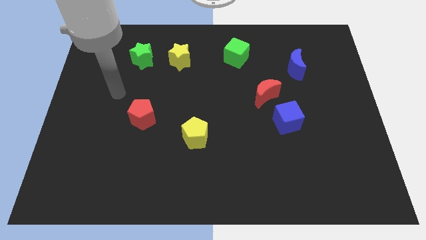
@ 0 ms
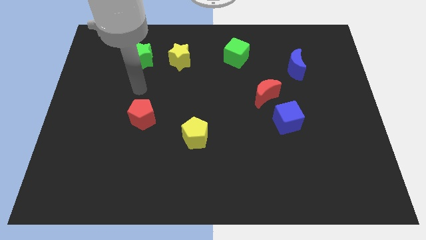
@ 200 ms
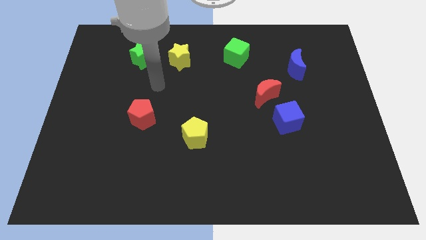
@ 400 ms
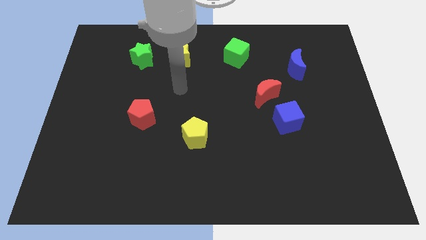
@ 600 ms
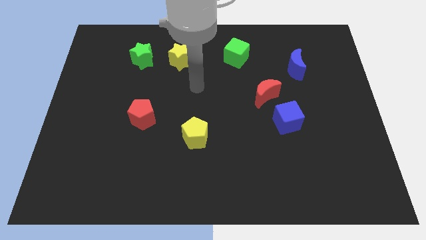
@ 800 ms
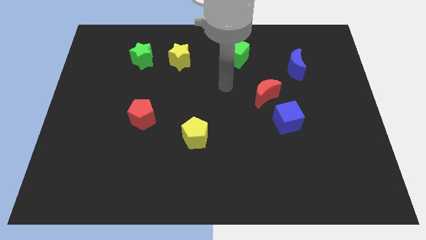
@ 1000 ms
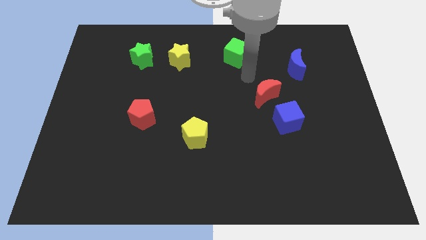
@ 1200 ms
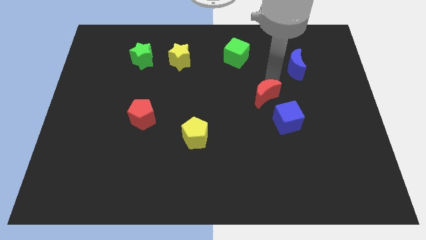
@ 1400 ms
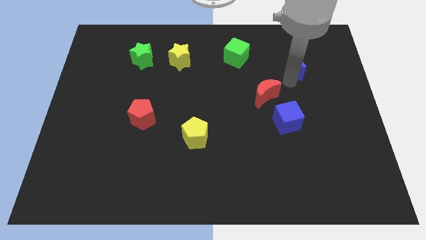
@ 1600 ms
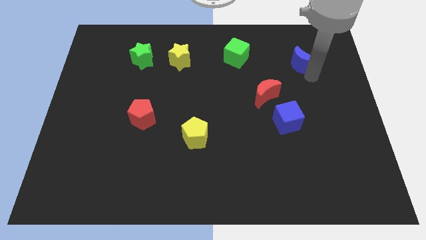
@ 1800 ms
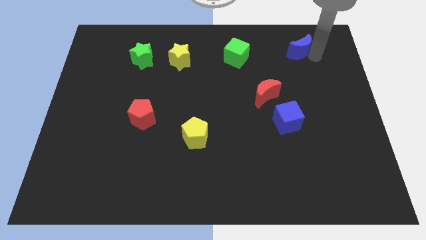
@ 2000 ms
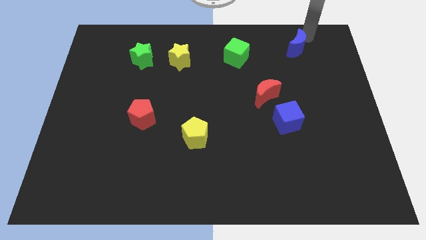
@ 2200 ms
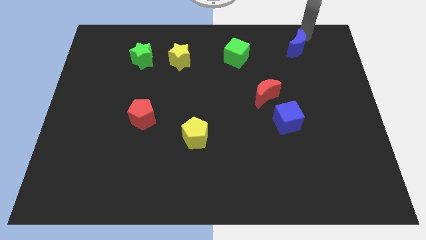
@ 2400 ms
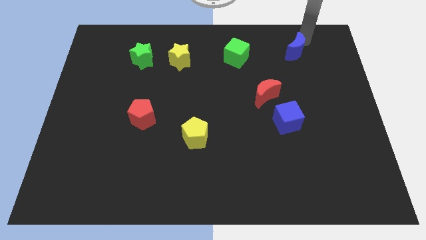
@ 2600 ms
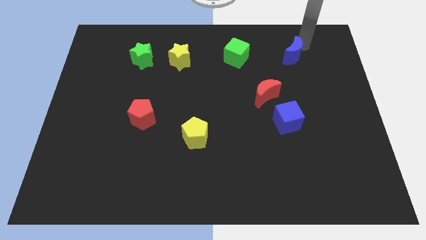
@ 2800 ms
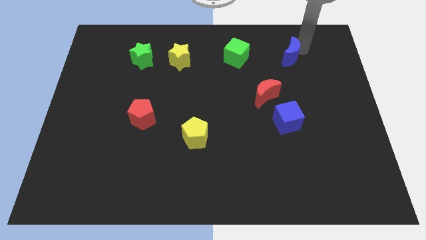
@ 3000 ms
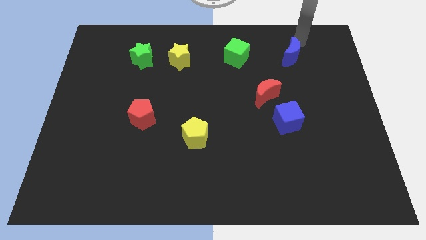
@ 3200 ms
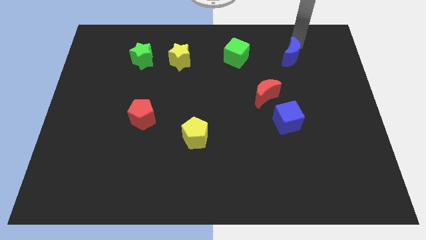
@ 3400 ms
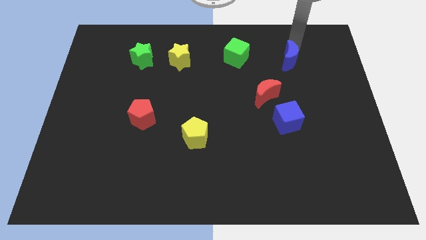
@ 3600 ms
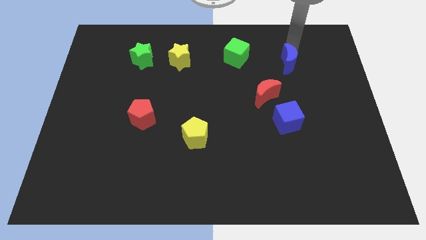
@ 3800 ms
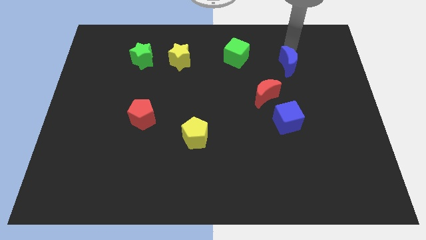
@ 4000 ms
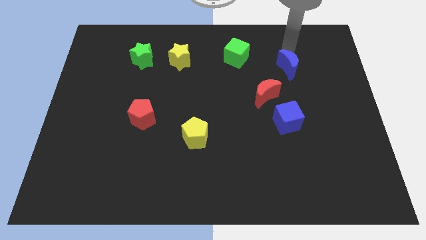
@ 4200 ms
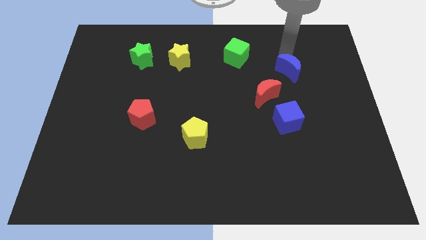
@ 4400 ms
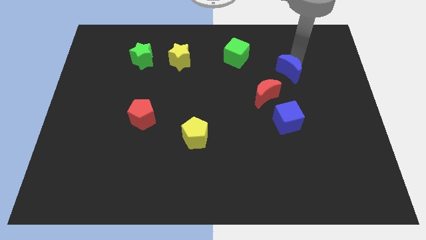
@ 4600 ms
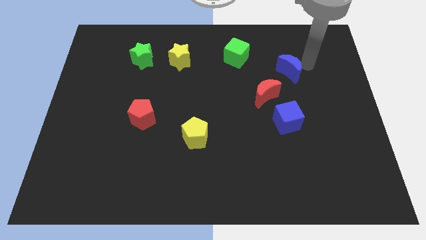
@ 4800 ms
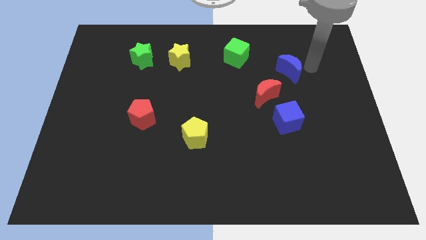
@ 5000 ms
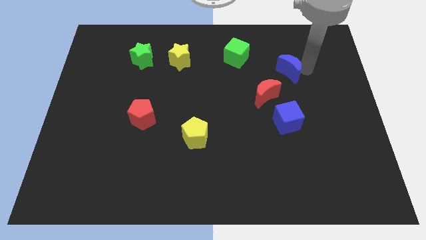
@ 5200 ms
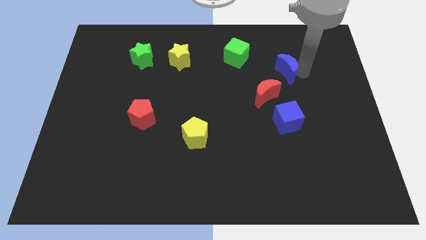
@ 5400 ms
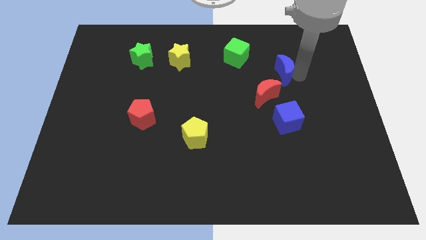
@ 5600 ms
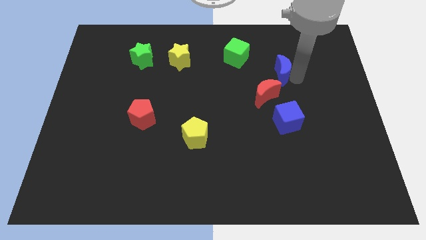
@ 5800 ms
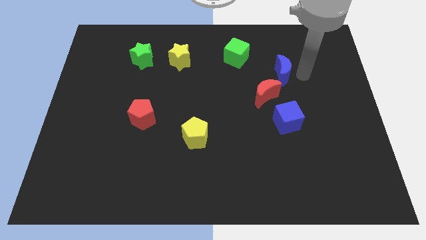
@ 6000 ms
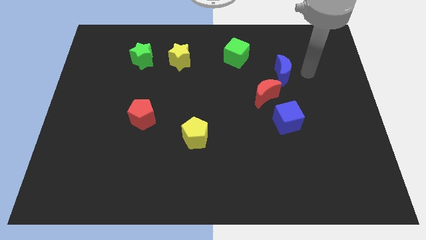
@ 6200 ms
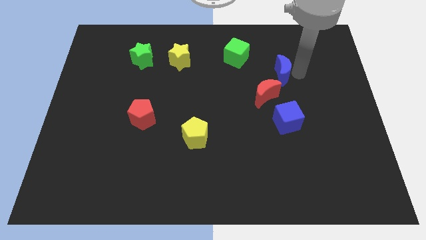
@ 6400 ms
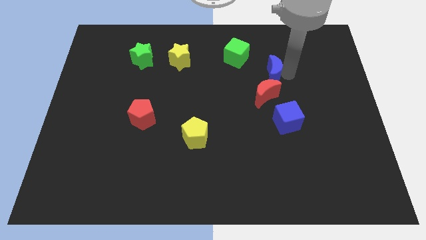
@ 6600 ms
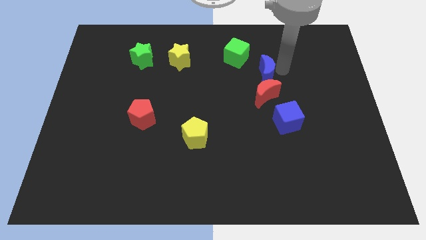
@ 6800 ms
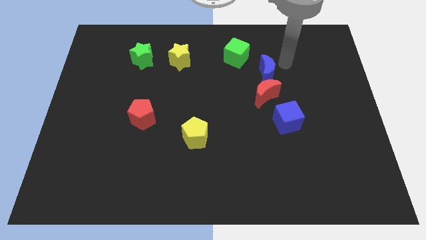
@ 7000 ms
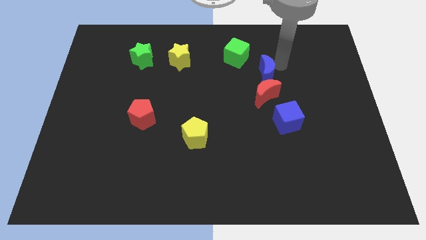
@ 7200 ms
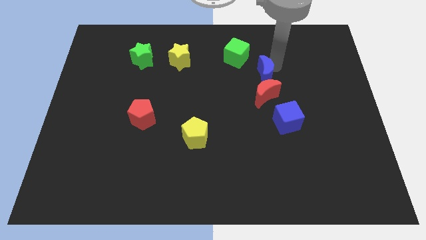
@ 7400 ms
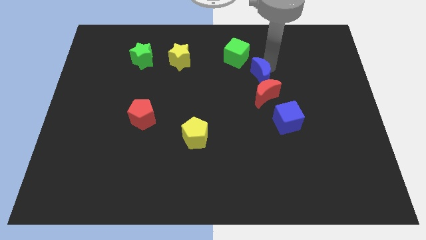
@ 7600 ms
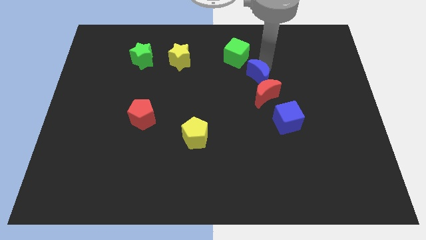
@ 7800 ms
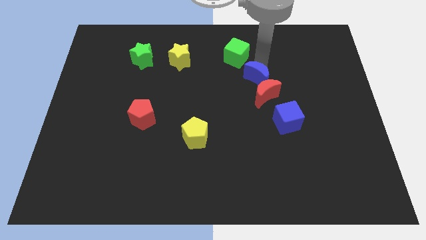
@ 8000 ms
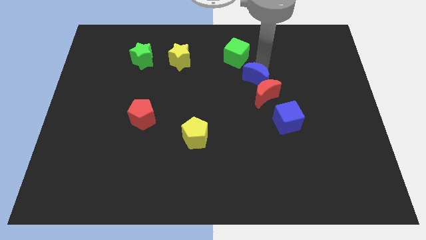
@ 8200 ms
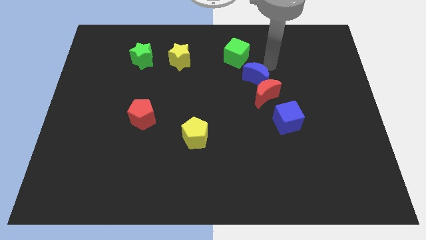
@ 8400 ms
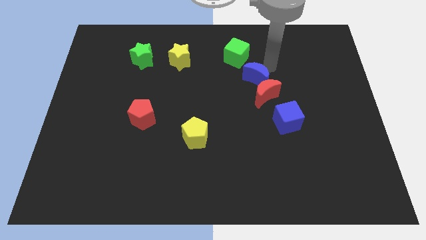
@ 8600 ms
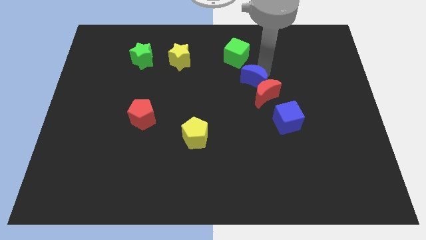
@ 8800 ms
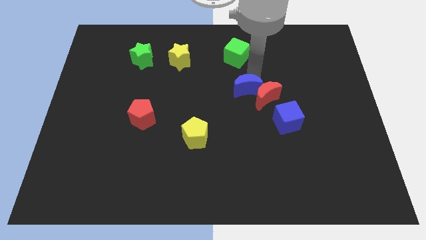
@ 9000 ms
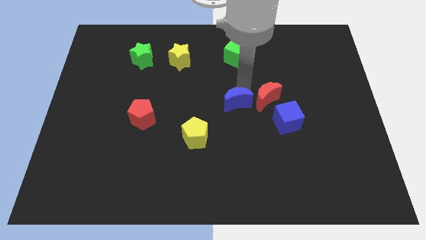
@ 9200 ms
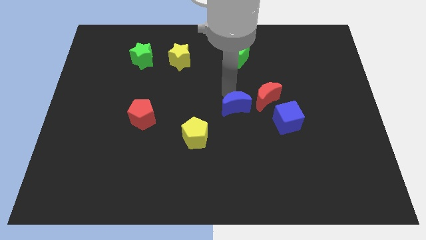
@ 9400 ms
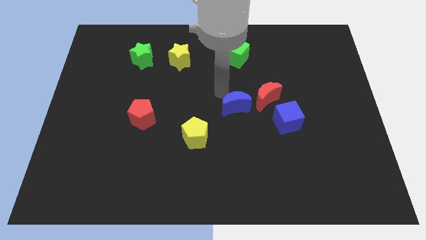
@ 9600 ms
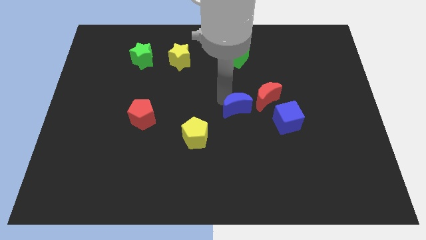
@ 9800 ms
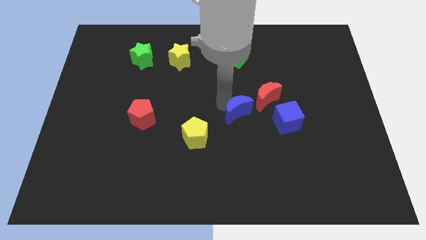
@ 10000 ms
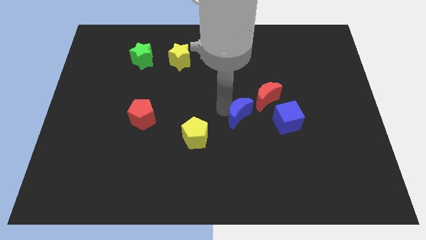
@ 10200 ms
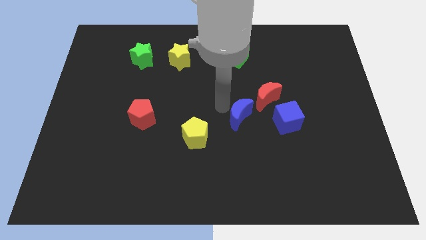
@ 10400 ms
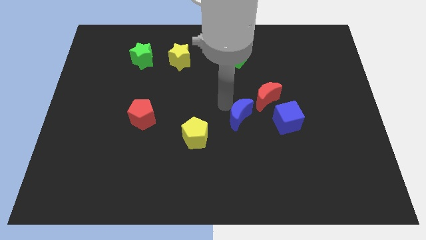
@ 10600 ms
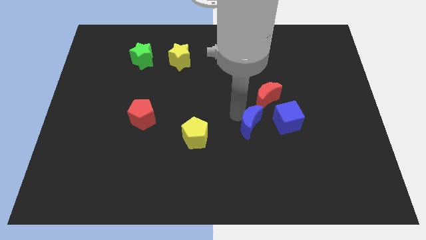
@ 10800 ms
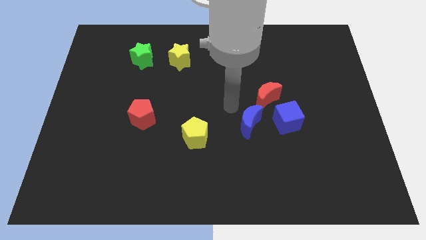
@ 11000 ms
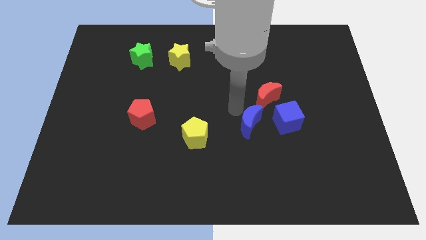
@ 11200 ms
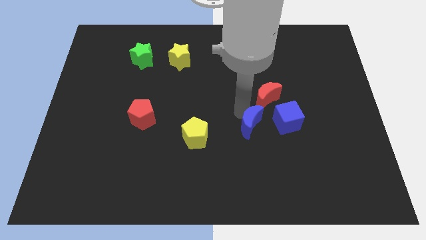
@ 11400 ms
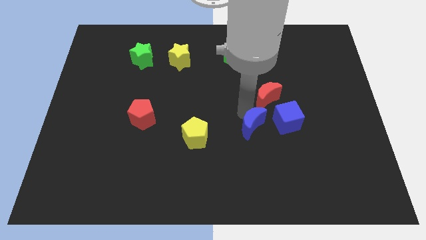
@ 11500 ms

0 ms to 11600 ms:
slide the blue moon to the bottom left side of the blue cube
